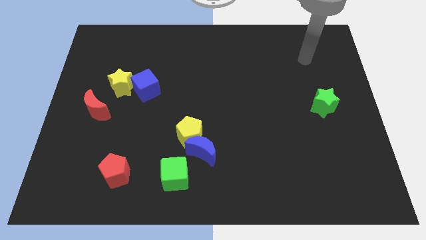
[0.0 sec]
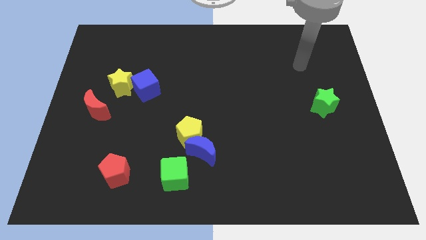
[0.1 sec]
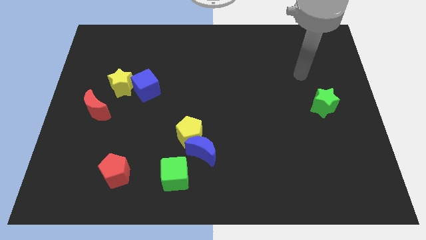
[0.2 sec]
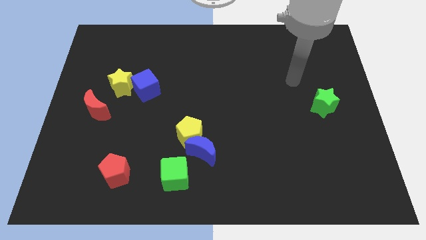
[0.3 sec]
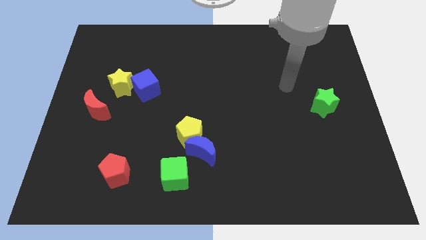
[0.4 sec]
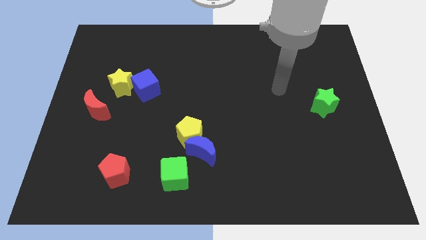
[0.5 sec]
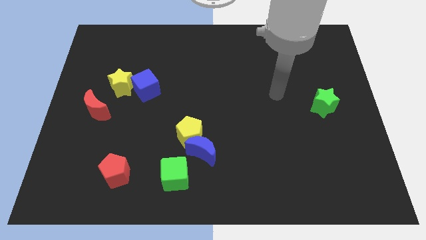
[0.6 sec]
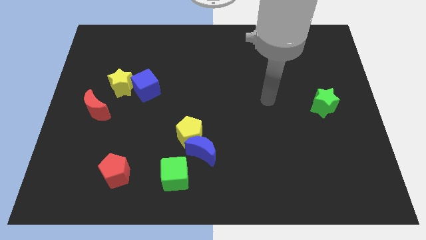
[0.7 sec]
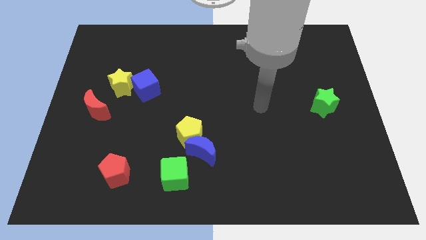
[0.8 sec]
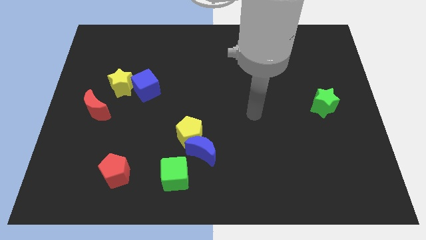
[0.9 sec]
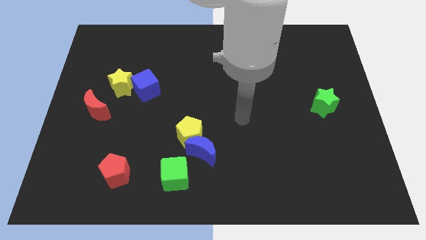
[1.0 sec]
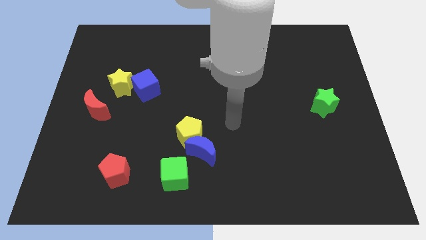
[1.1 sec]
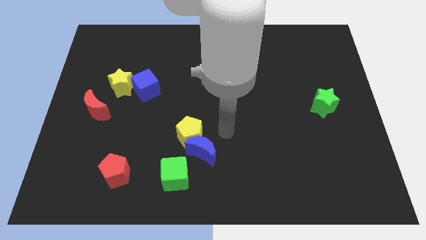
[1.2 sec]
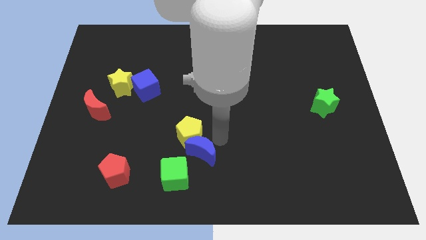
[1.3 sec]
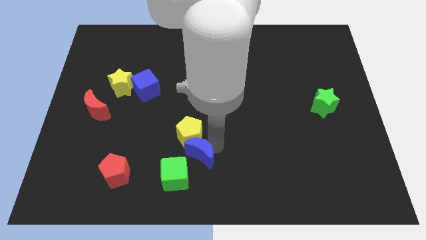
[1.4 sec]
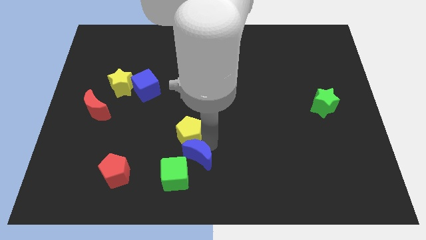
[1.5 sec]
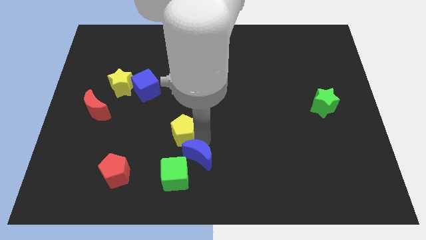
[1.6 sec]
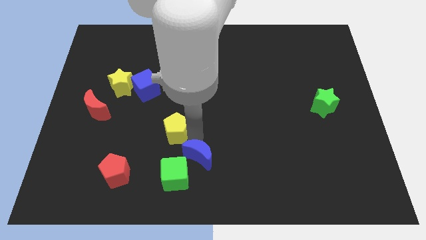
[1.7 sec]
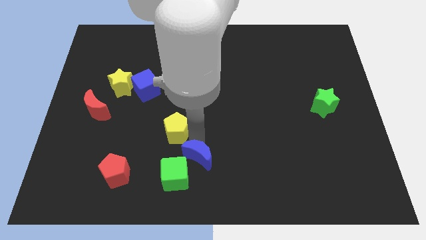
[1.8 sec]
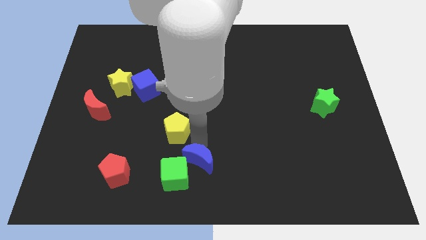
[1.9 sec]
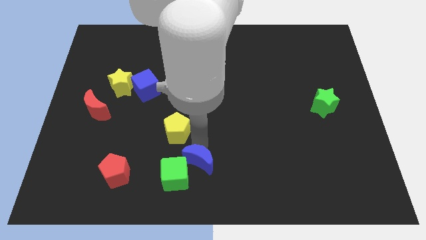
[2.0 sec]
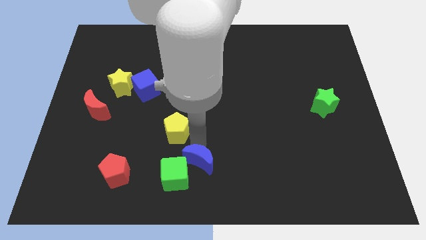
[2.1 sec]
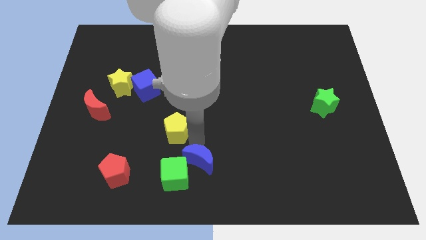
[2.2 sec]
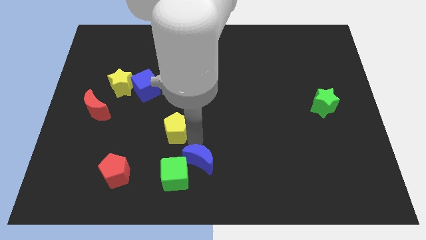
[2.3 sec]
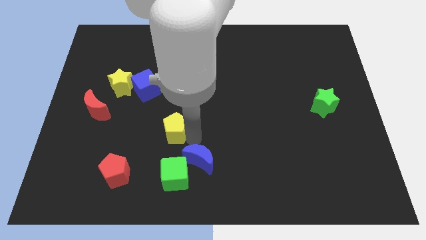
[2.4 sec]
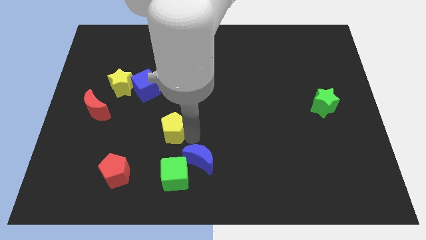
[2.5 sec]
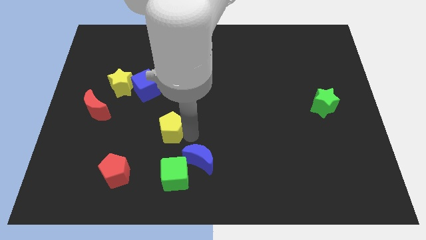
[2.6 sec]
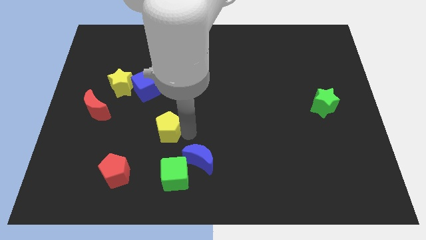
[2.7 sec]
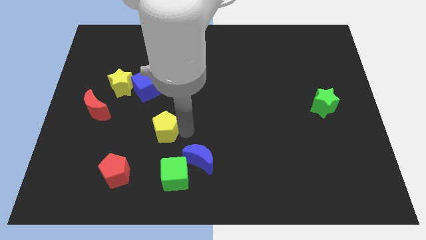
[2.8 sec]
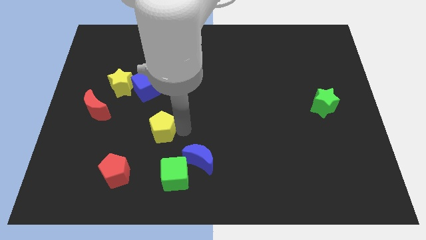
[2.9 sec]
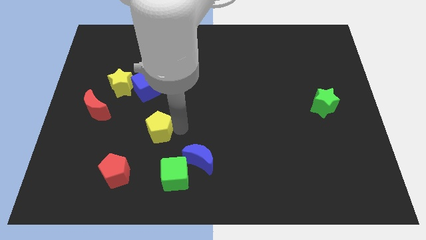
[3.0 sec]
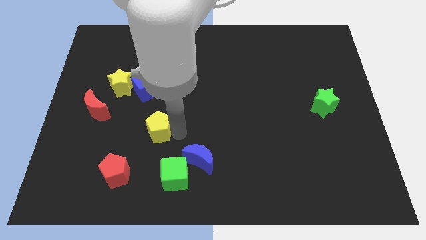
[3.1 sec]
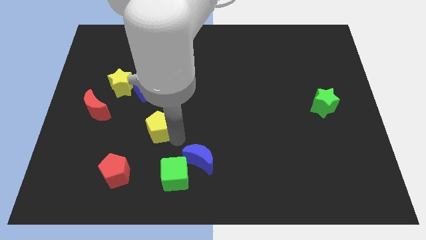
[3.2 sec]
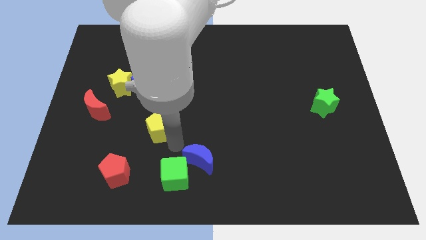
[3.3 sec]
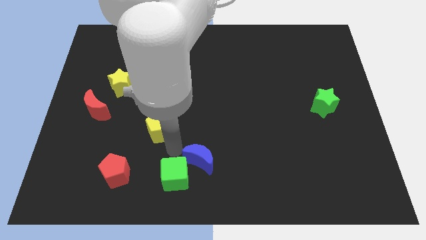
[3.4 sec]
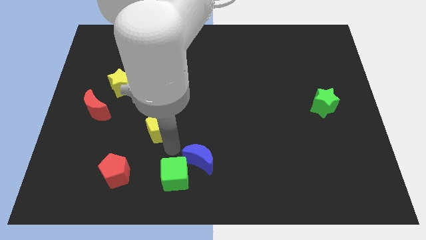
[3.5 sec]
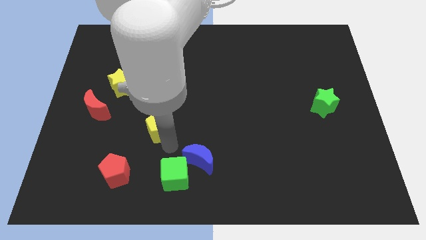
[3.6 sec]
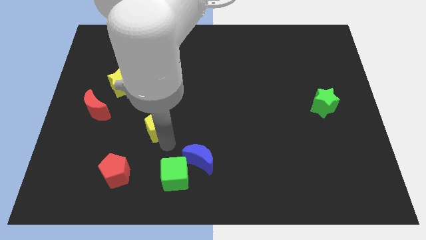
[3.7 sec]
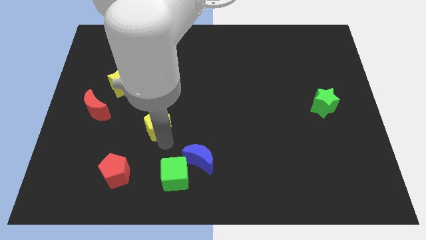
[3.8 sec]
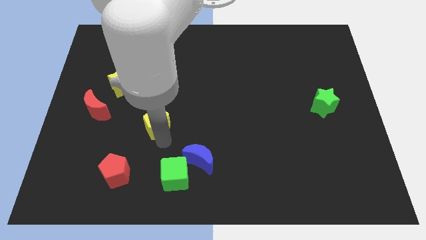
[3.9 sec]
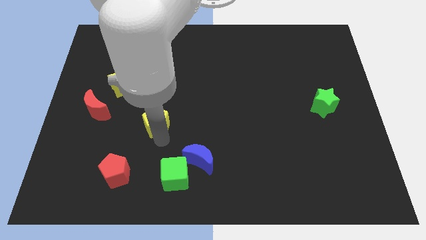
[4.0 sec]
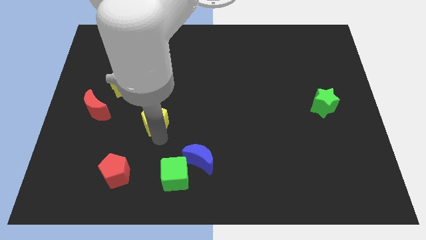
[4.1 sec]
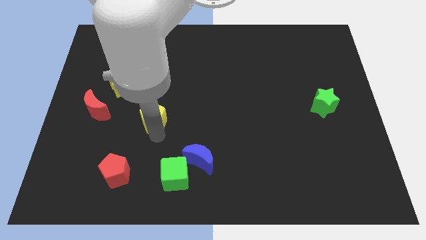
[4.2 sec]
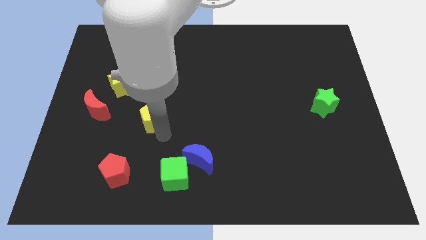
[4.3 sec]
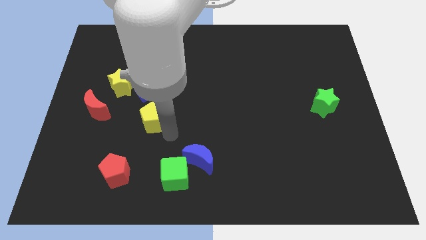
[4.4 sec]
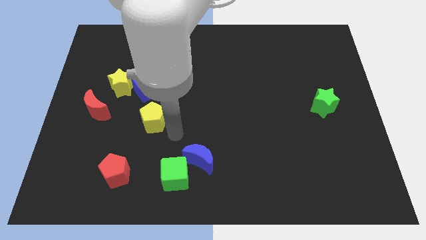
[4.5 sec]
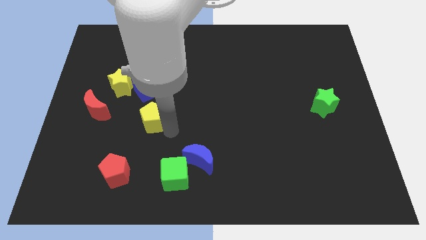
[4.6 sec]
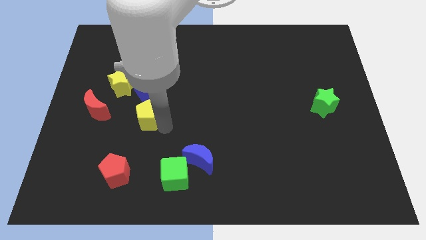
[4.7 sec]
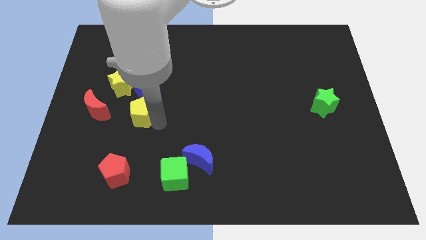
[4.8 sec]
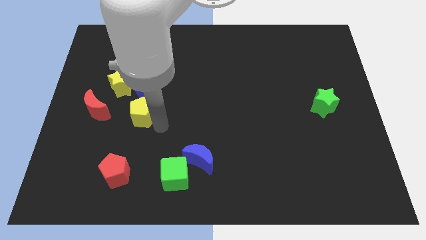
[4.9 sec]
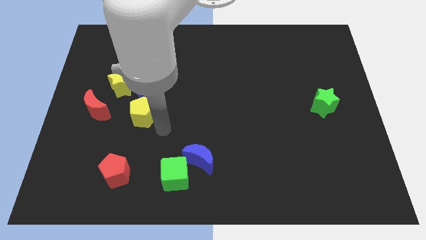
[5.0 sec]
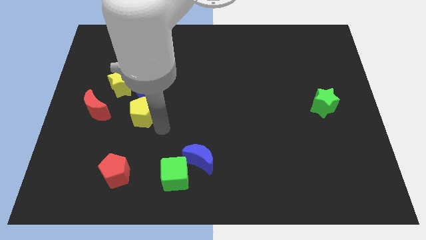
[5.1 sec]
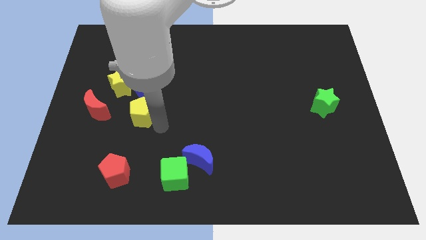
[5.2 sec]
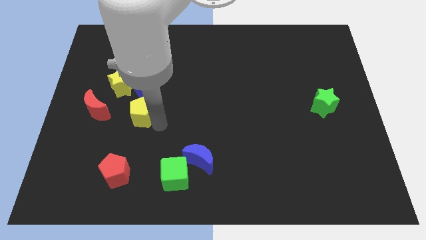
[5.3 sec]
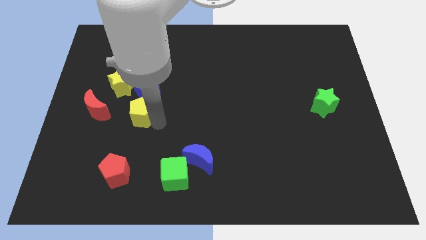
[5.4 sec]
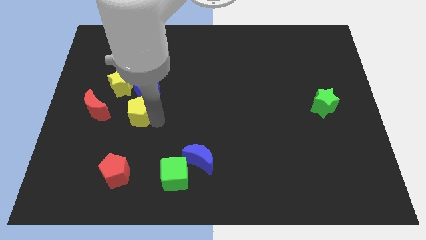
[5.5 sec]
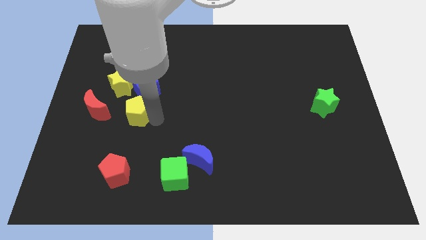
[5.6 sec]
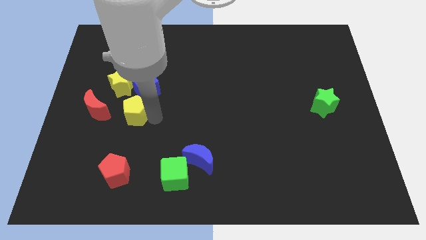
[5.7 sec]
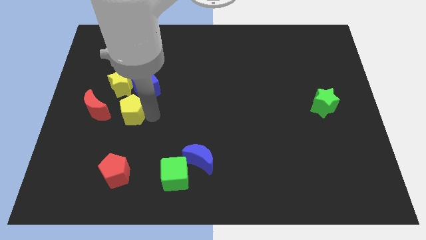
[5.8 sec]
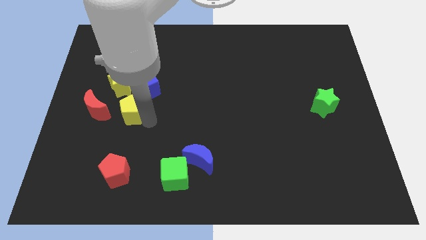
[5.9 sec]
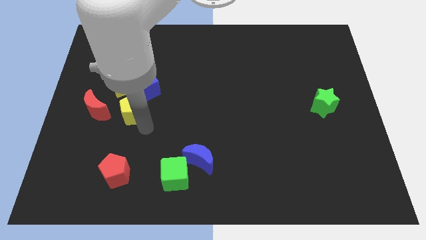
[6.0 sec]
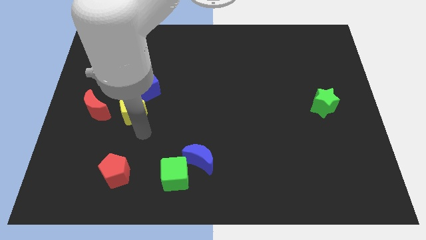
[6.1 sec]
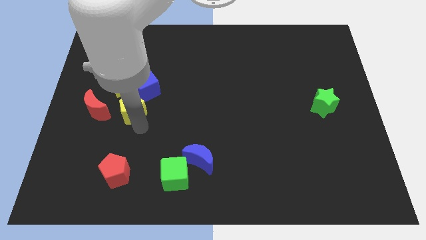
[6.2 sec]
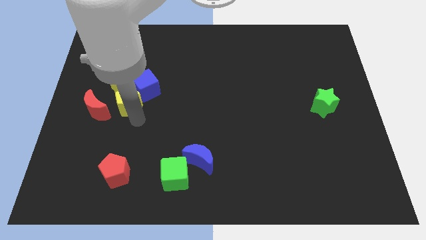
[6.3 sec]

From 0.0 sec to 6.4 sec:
put the yellow pentagon towards the yellow star

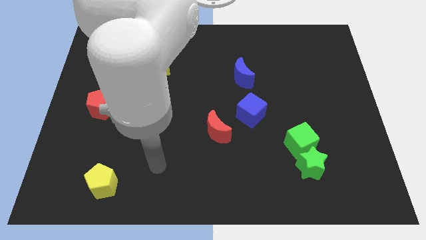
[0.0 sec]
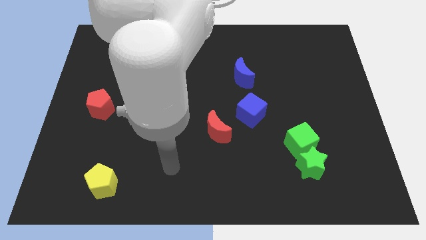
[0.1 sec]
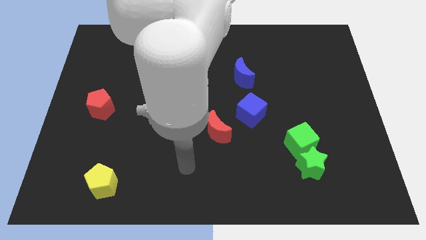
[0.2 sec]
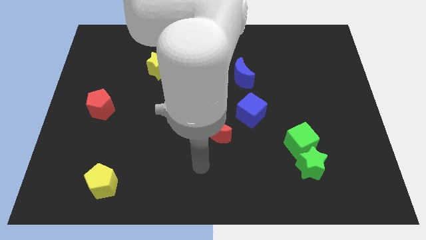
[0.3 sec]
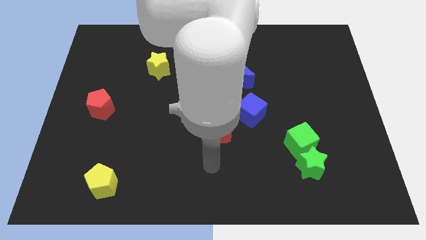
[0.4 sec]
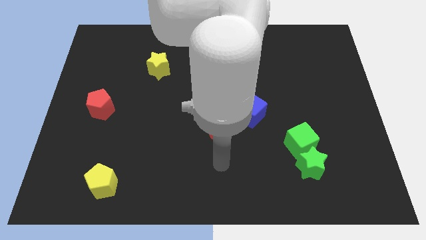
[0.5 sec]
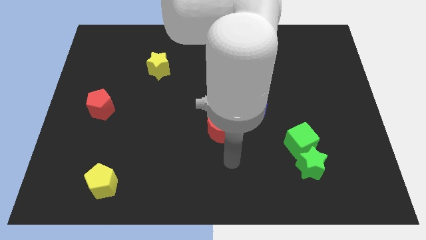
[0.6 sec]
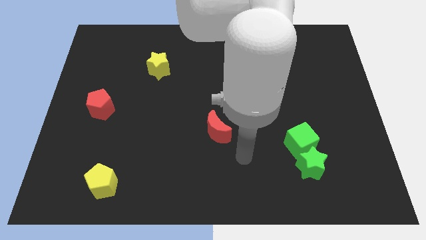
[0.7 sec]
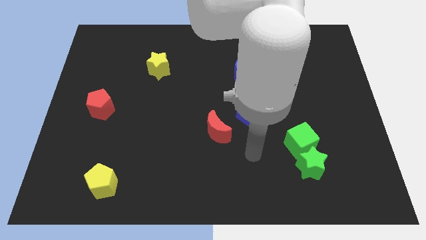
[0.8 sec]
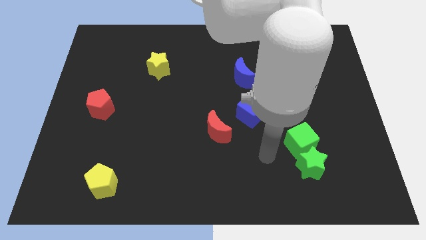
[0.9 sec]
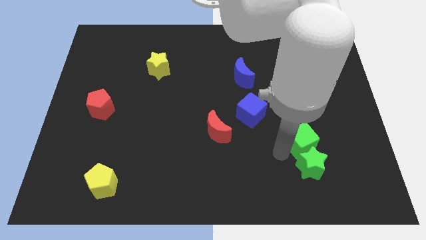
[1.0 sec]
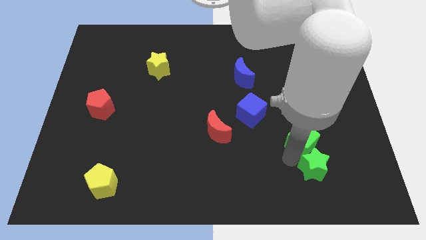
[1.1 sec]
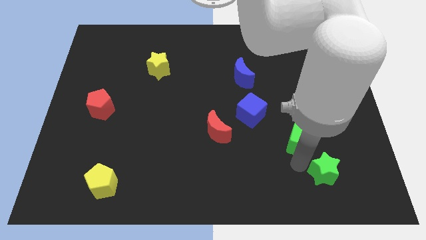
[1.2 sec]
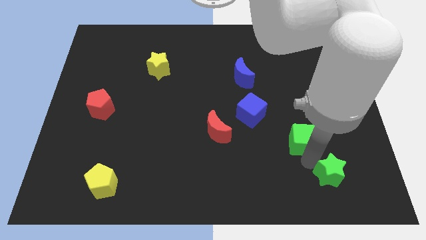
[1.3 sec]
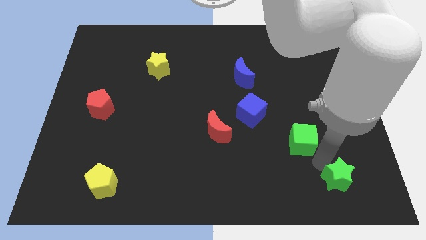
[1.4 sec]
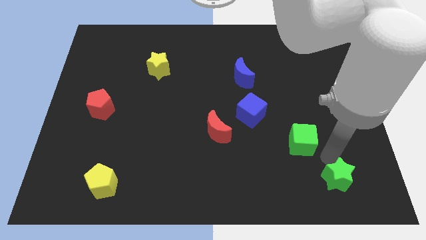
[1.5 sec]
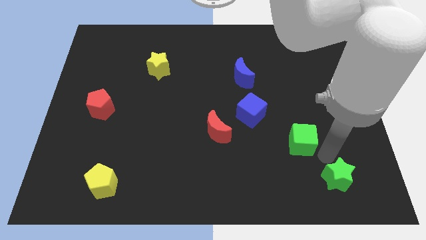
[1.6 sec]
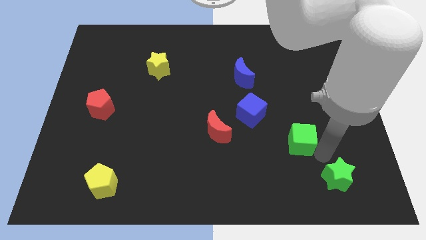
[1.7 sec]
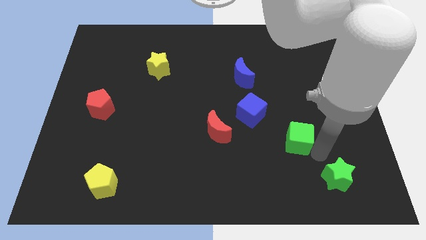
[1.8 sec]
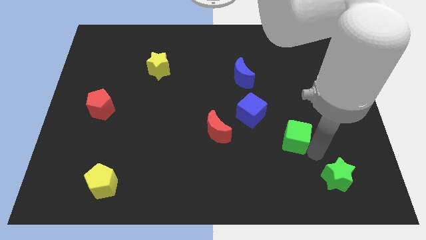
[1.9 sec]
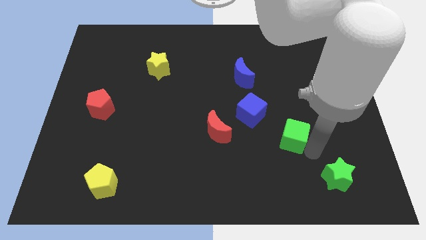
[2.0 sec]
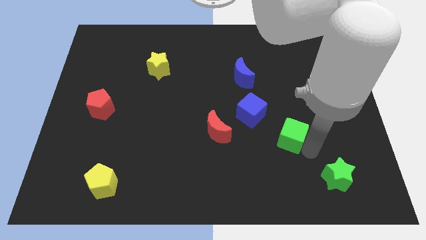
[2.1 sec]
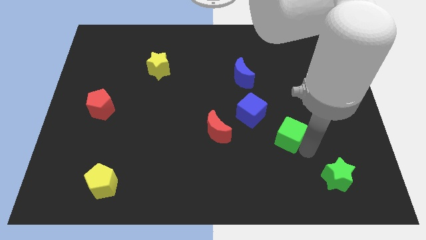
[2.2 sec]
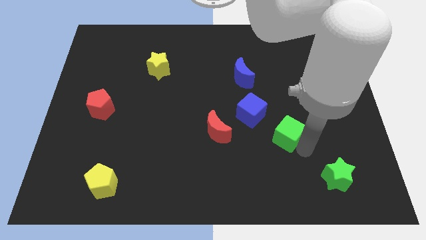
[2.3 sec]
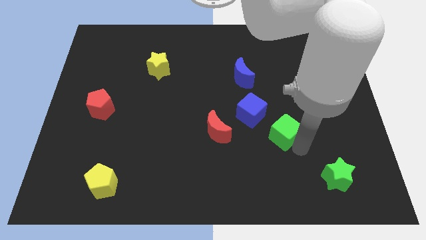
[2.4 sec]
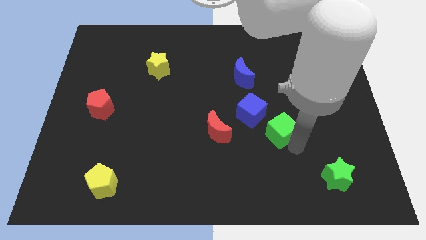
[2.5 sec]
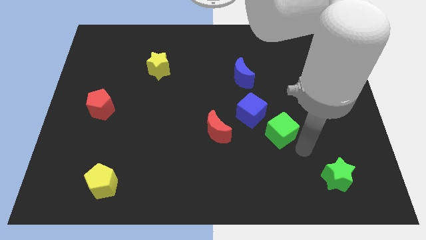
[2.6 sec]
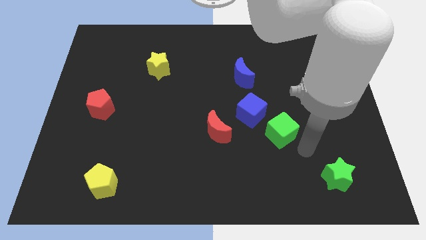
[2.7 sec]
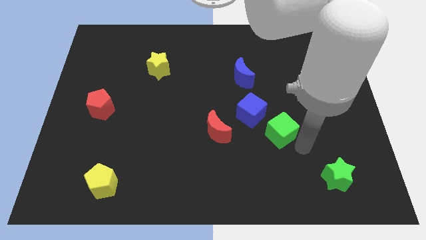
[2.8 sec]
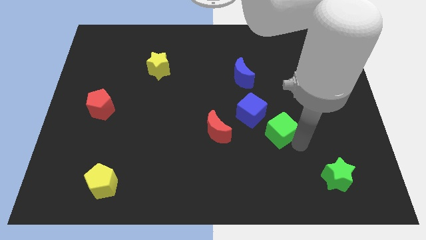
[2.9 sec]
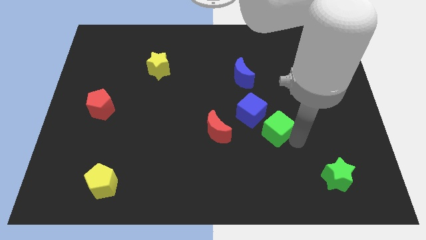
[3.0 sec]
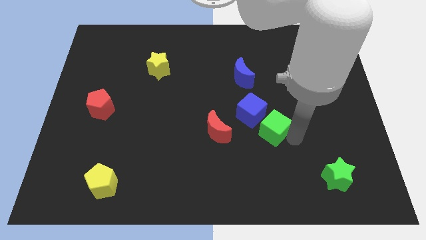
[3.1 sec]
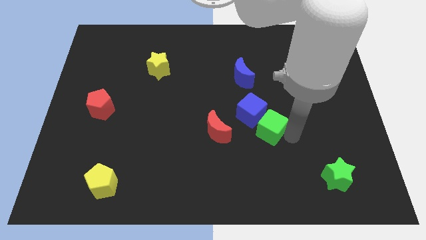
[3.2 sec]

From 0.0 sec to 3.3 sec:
put the green cube next to the blue cube
